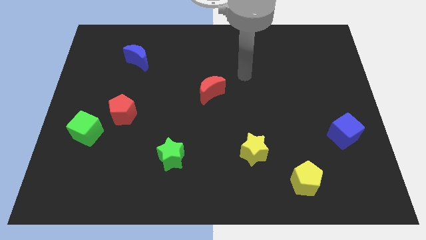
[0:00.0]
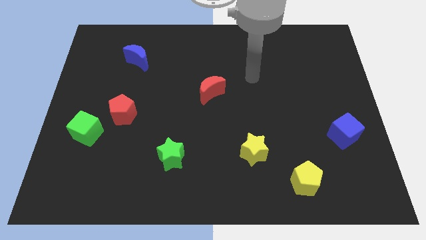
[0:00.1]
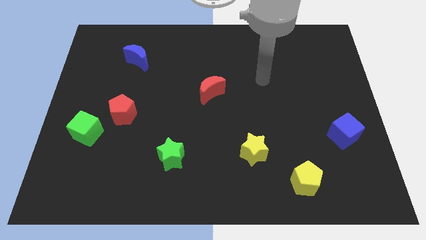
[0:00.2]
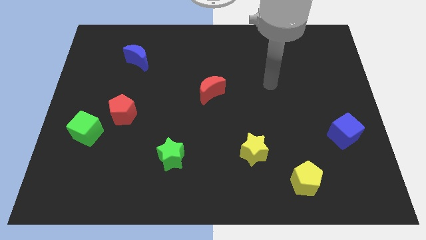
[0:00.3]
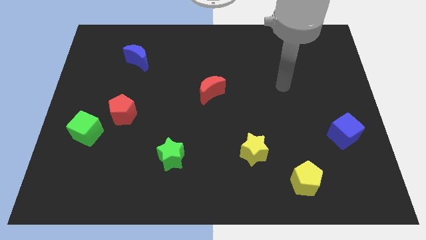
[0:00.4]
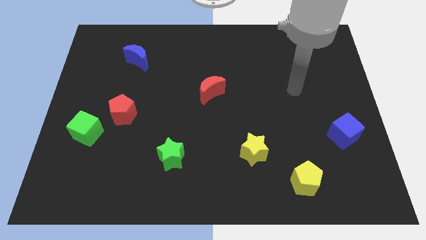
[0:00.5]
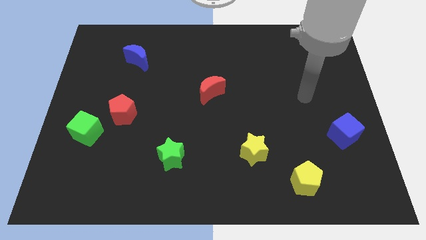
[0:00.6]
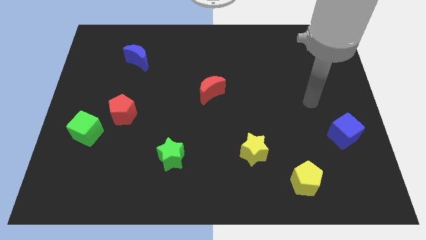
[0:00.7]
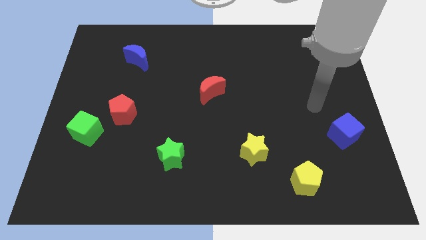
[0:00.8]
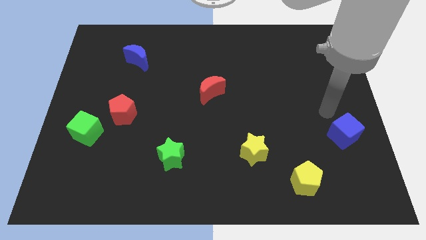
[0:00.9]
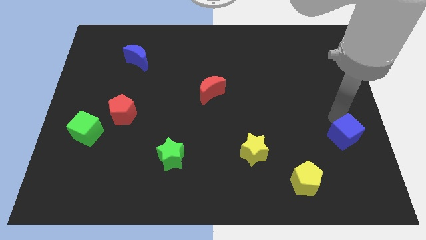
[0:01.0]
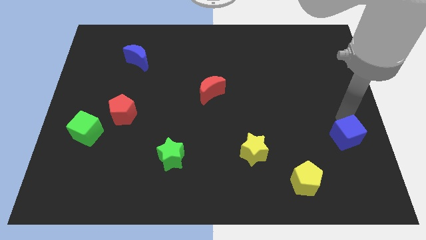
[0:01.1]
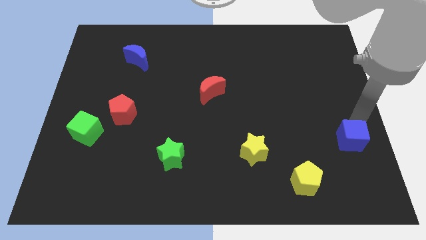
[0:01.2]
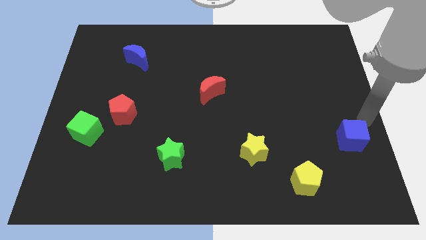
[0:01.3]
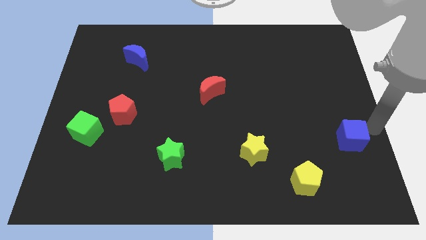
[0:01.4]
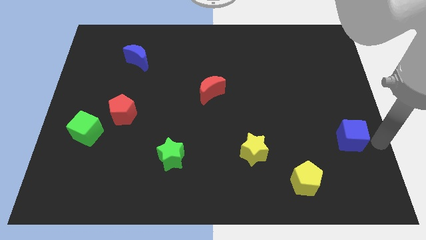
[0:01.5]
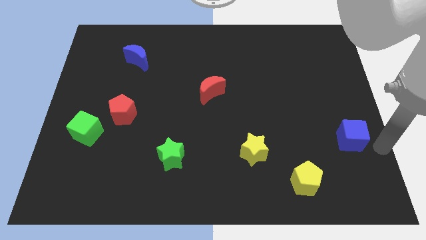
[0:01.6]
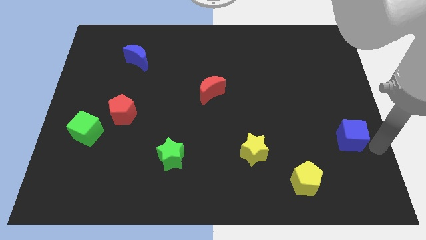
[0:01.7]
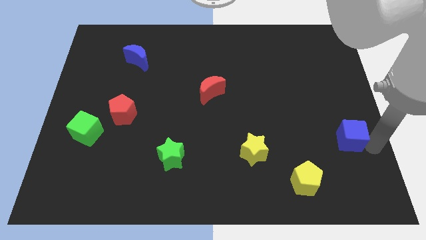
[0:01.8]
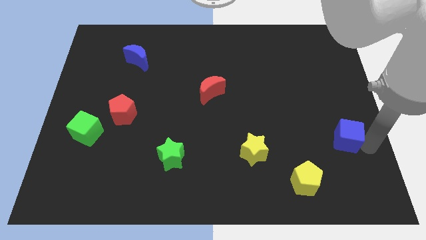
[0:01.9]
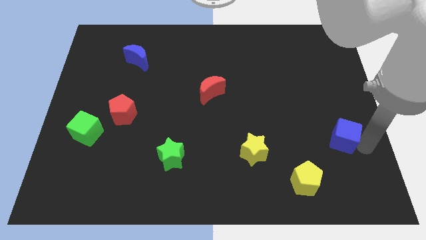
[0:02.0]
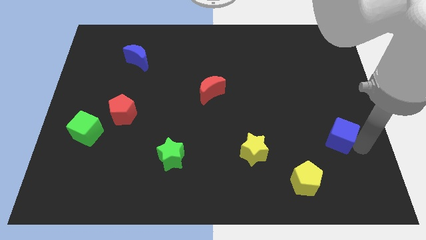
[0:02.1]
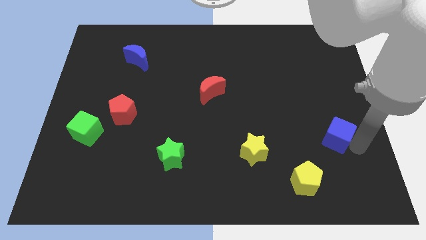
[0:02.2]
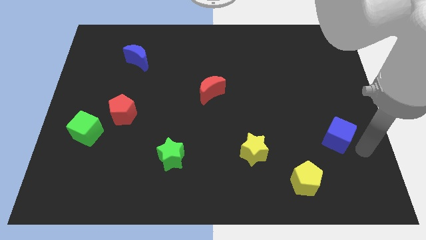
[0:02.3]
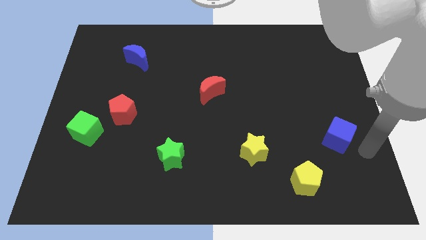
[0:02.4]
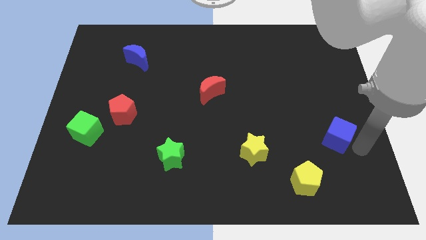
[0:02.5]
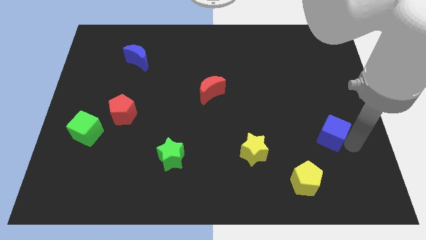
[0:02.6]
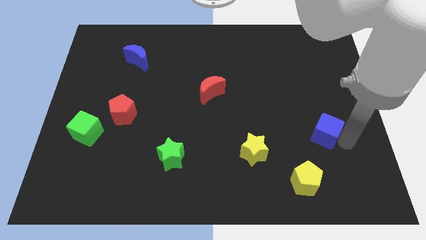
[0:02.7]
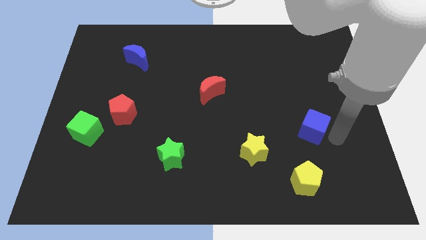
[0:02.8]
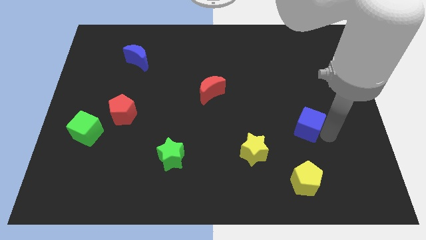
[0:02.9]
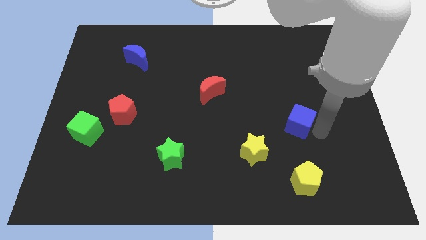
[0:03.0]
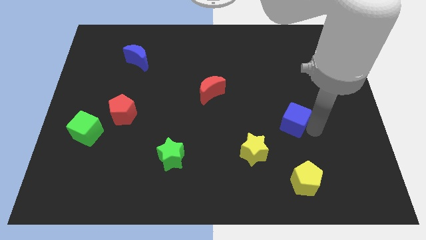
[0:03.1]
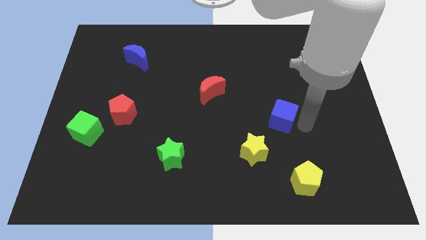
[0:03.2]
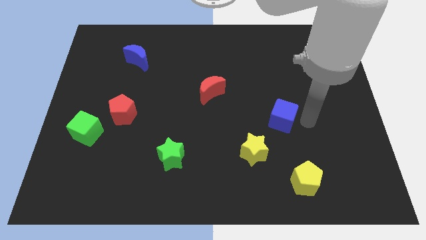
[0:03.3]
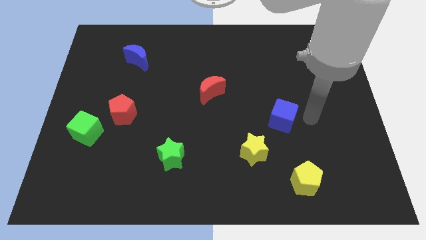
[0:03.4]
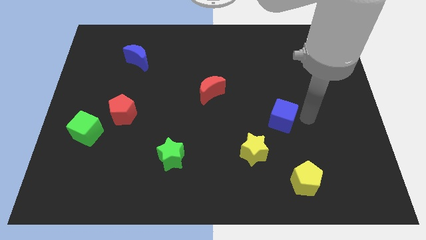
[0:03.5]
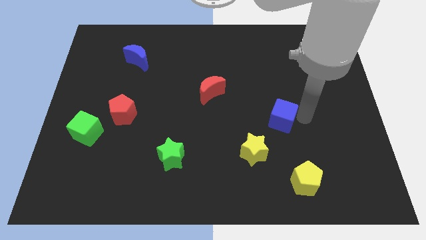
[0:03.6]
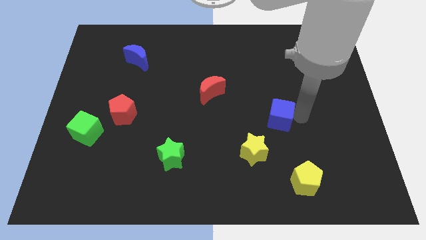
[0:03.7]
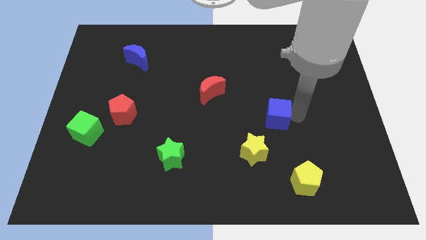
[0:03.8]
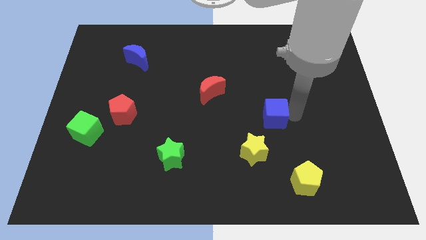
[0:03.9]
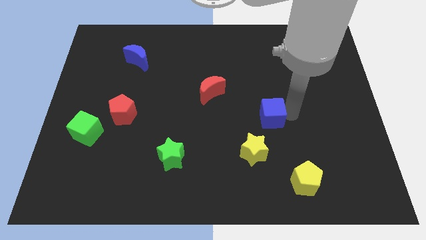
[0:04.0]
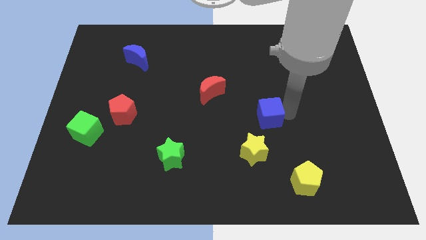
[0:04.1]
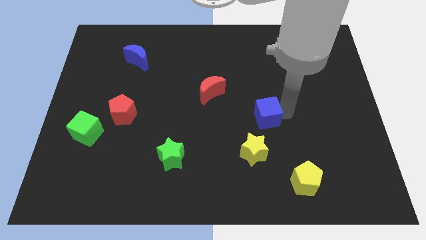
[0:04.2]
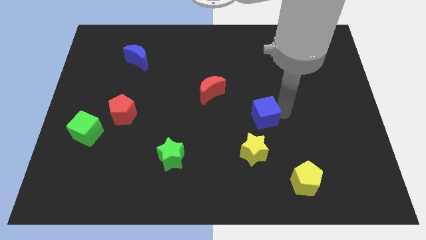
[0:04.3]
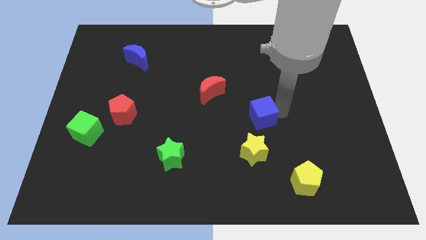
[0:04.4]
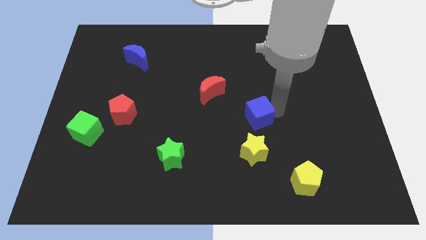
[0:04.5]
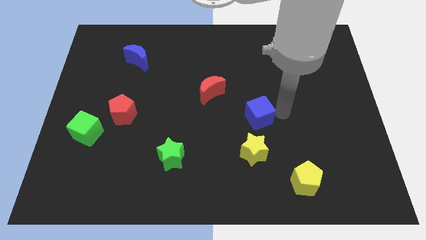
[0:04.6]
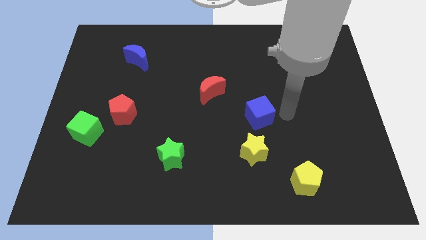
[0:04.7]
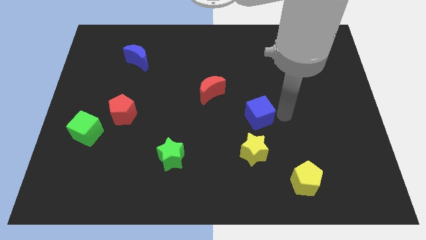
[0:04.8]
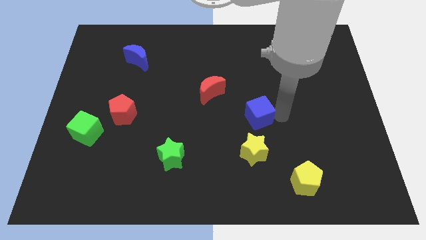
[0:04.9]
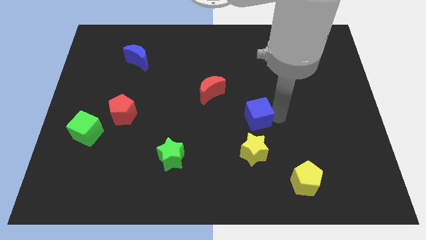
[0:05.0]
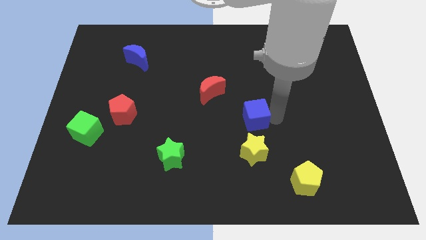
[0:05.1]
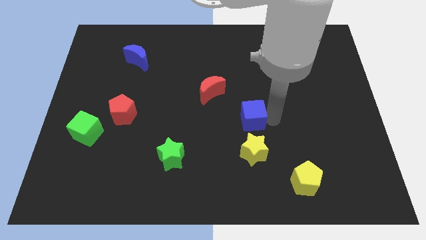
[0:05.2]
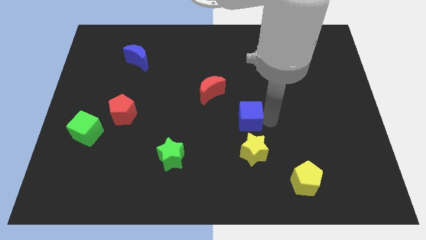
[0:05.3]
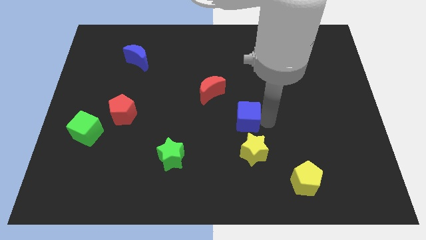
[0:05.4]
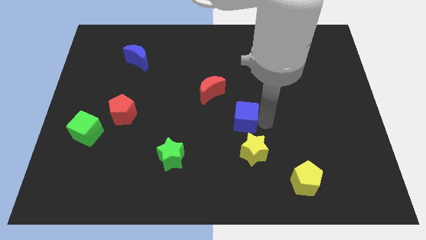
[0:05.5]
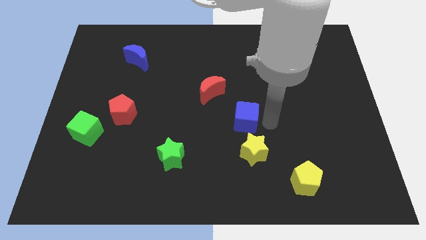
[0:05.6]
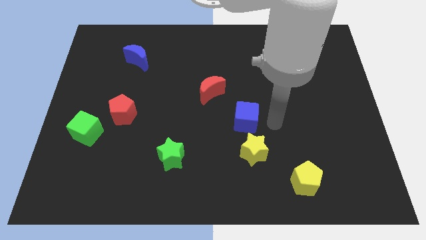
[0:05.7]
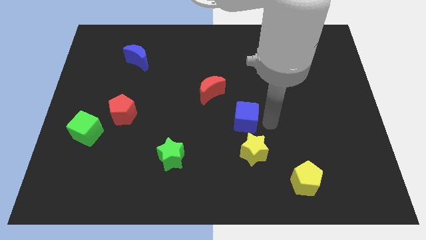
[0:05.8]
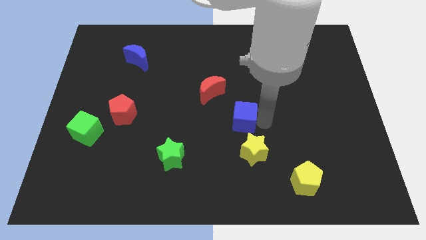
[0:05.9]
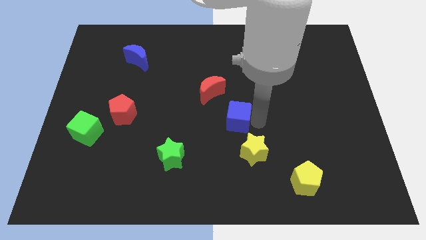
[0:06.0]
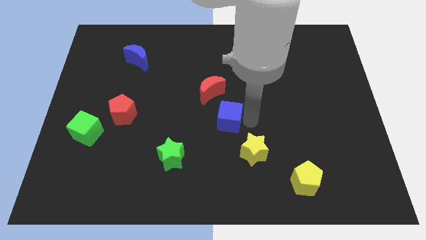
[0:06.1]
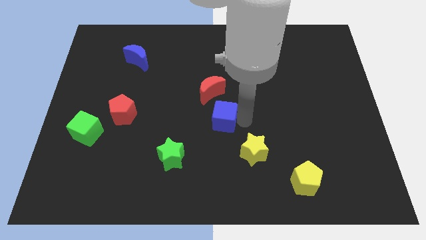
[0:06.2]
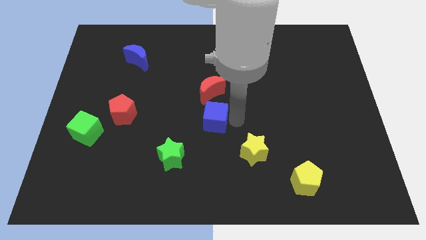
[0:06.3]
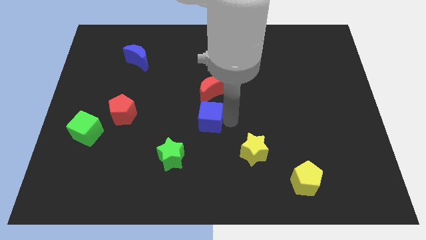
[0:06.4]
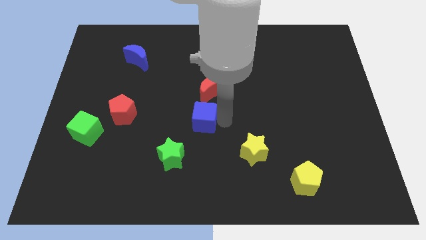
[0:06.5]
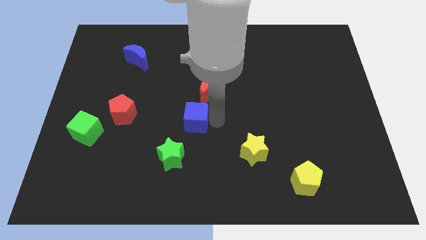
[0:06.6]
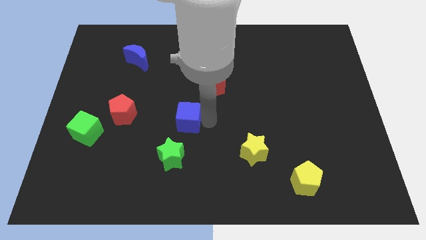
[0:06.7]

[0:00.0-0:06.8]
put the blue cube above the green star
